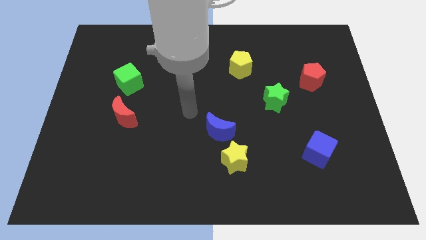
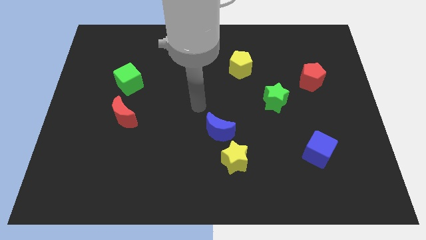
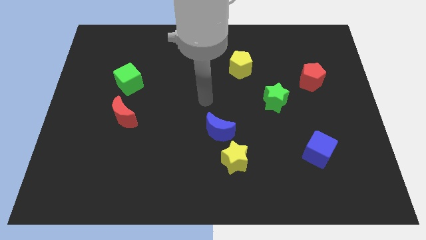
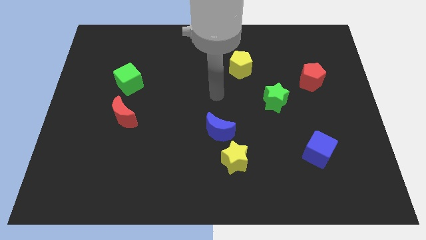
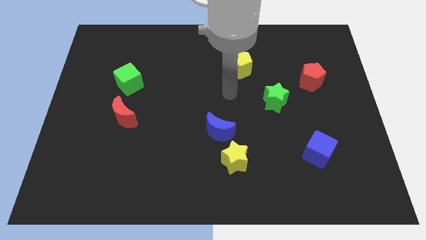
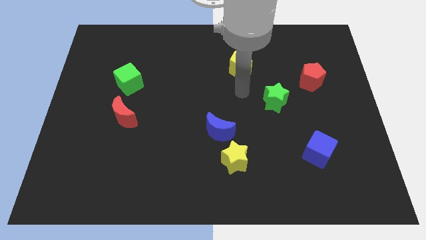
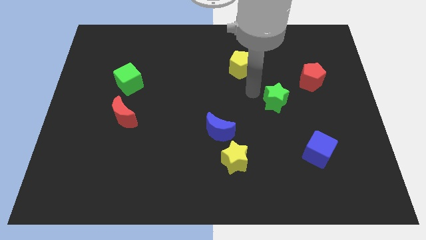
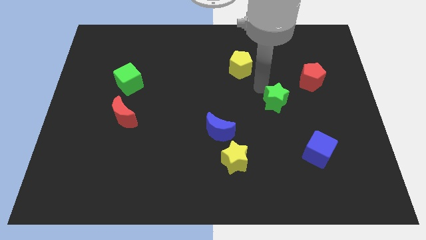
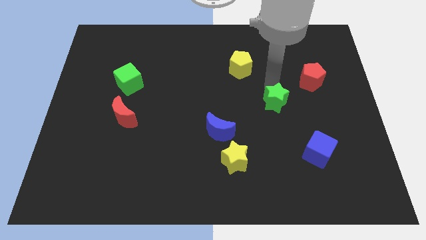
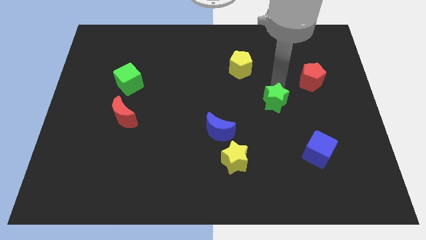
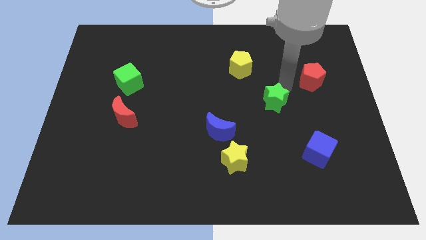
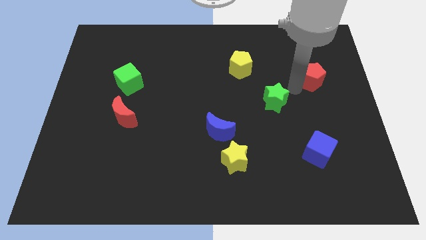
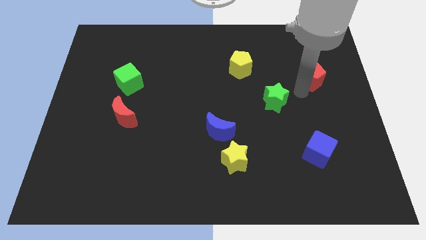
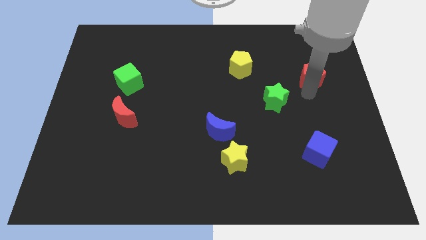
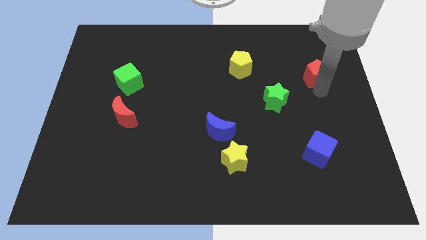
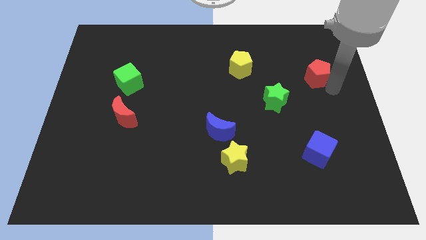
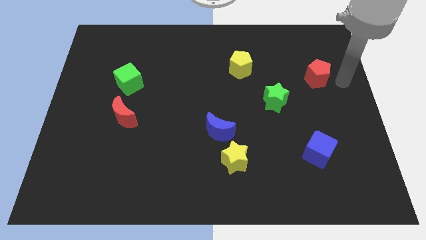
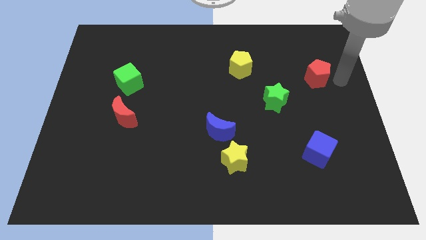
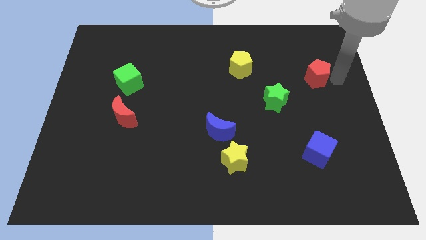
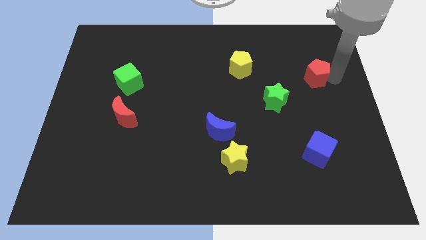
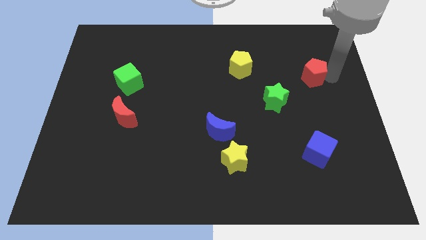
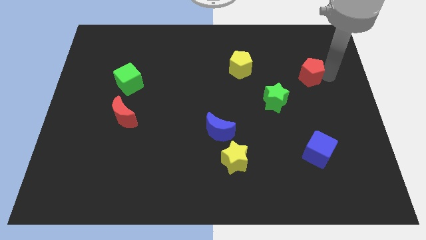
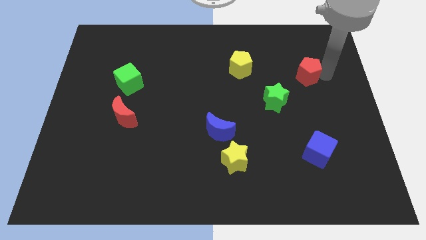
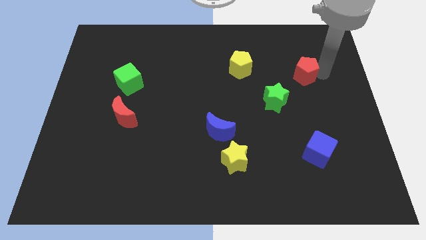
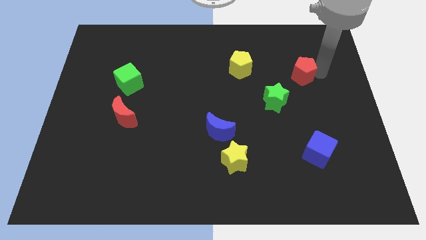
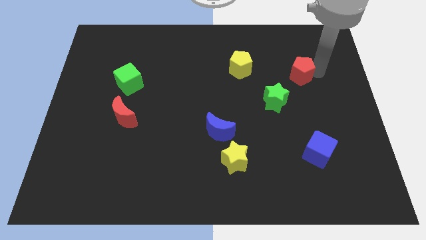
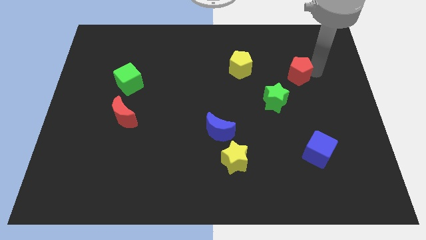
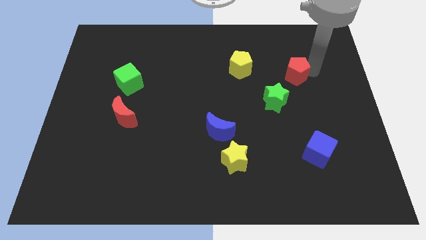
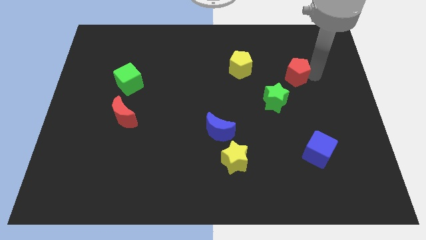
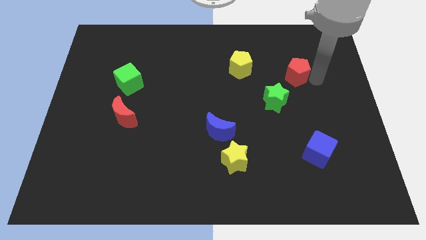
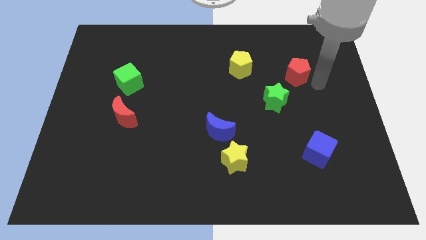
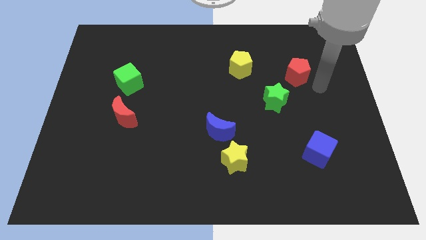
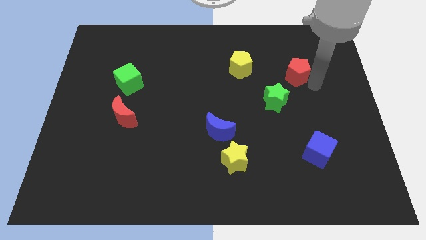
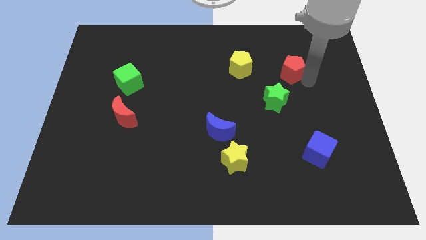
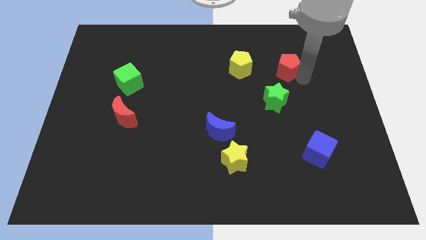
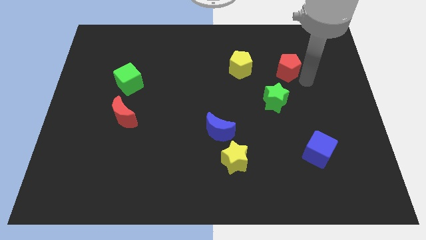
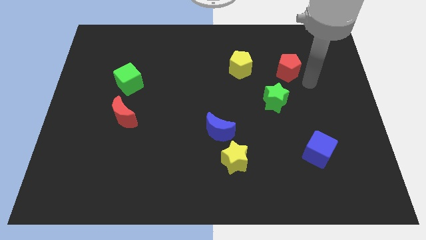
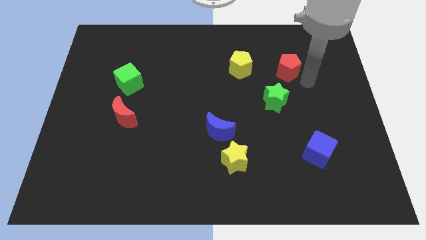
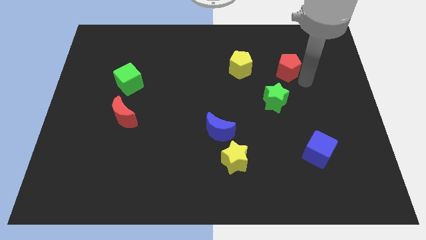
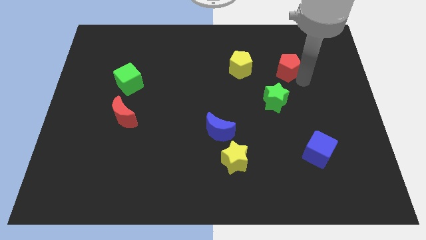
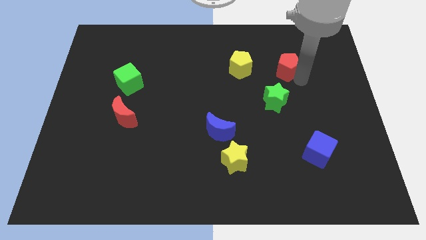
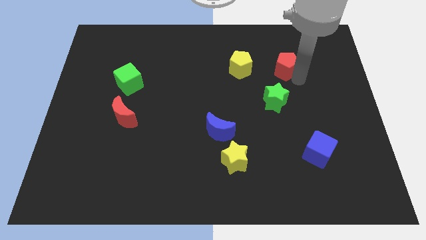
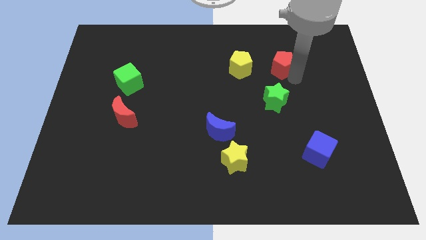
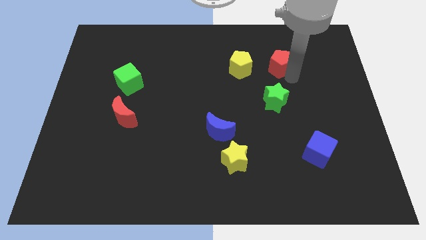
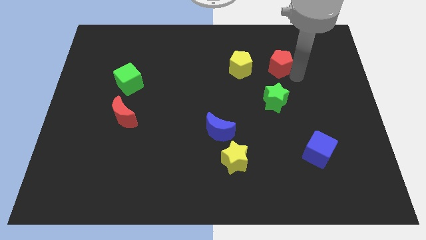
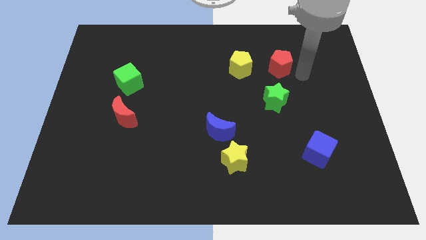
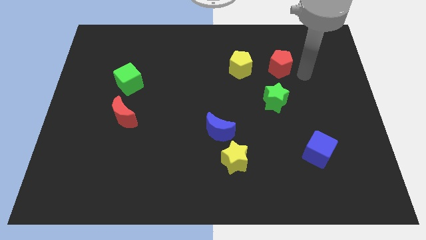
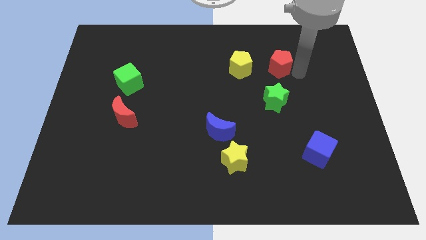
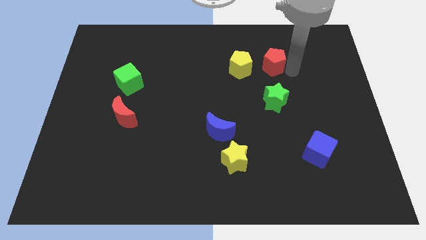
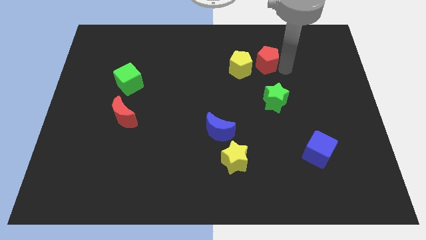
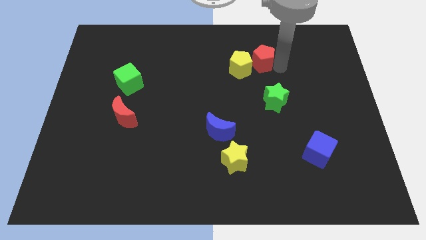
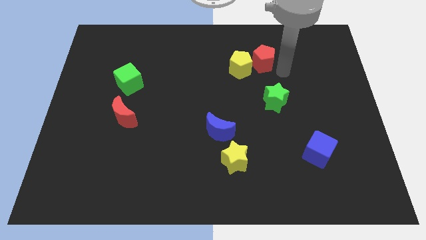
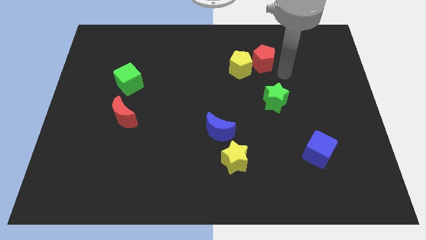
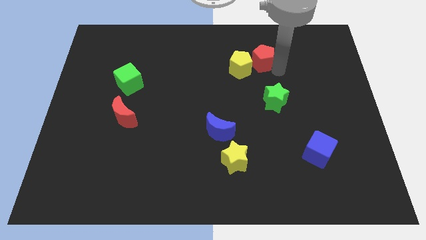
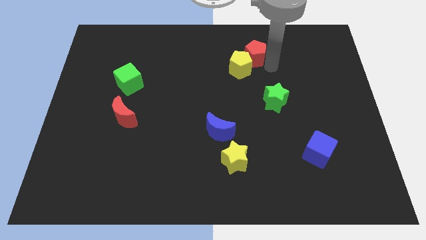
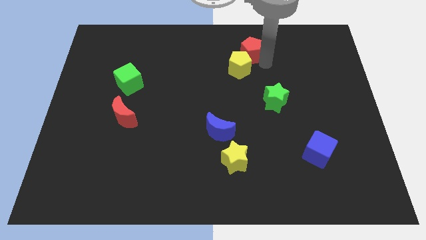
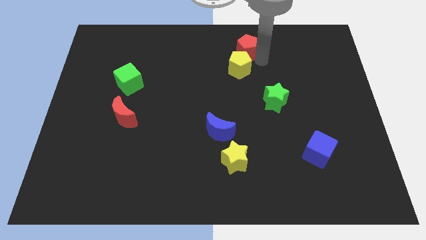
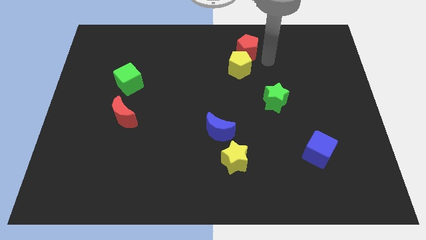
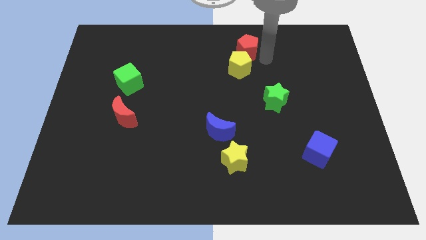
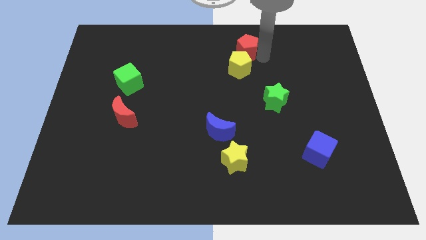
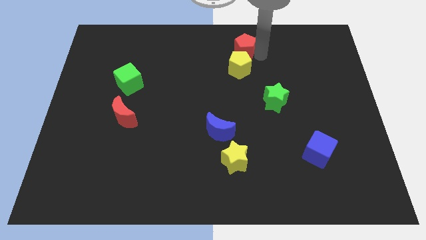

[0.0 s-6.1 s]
slide the red pentagon to the top side
